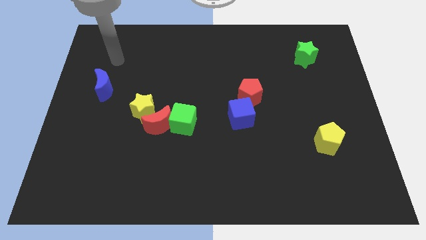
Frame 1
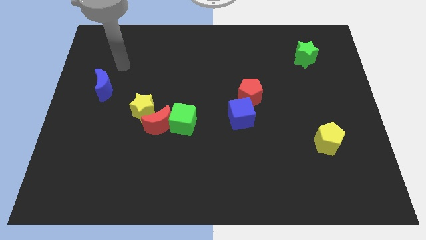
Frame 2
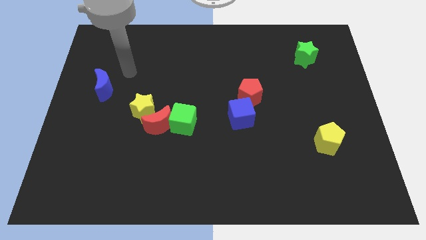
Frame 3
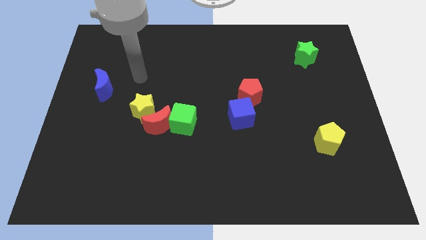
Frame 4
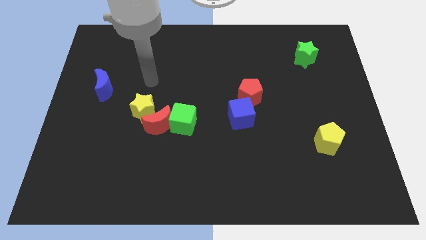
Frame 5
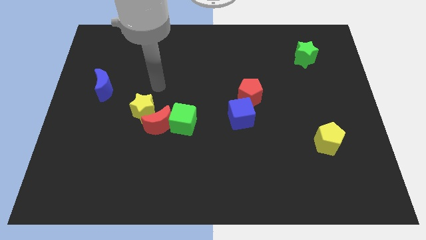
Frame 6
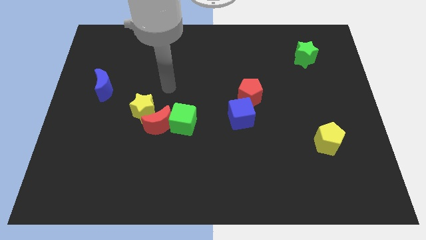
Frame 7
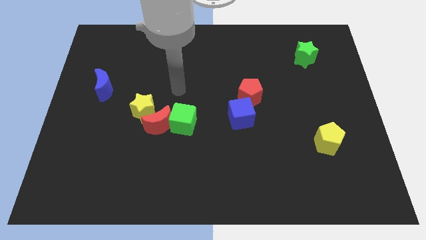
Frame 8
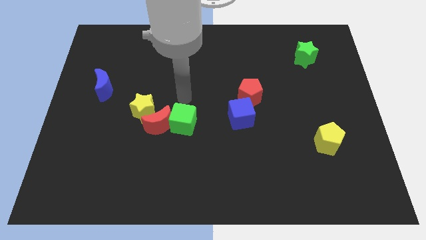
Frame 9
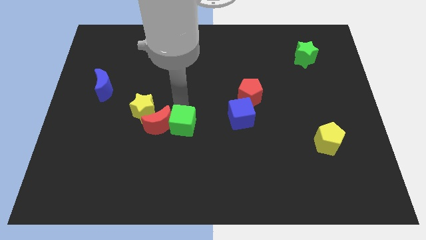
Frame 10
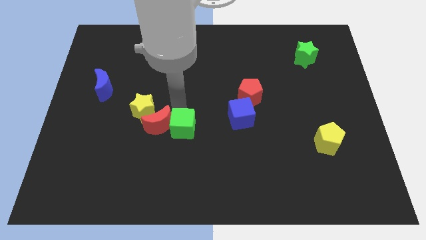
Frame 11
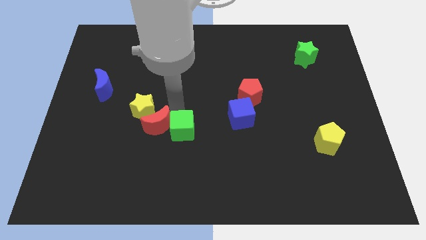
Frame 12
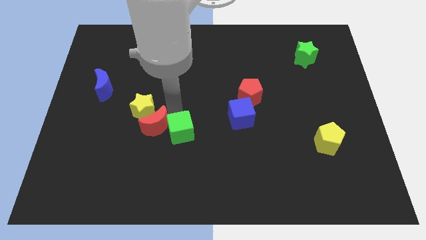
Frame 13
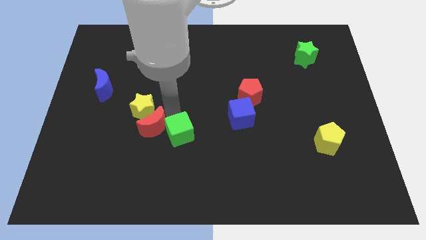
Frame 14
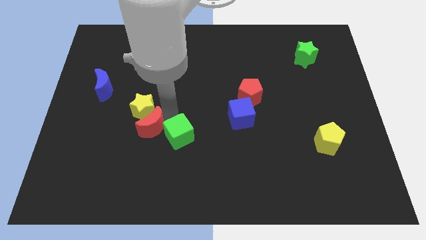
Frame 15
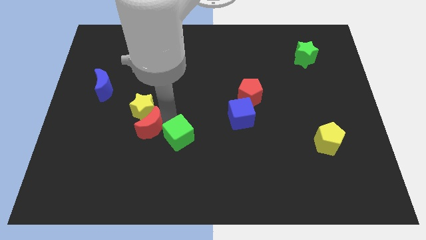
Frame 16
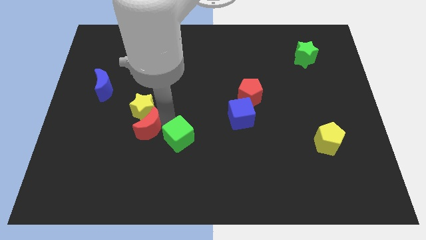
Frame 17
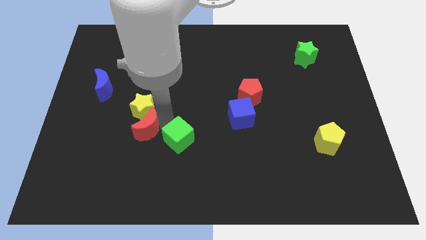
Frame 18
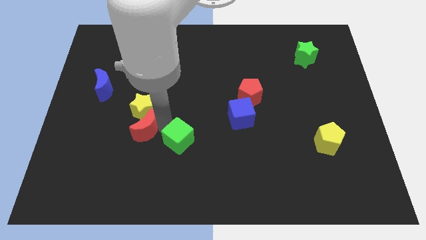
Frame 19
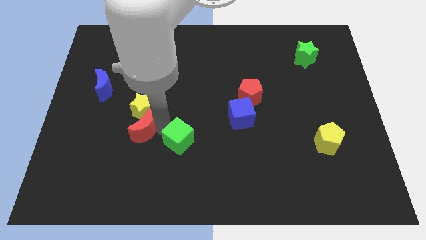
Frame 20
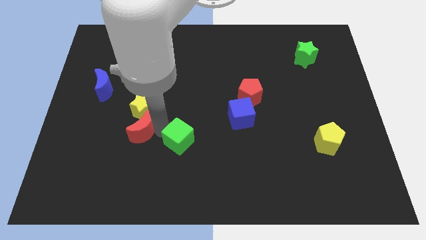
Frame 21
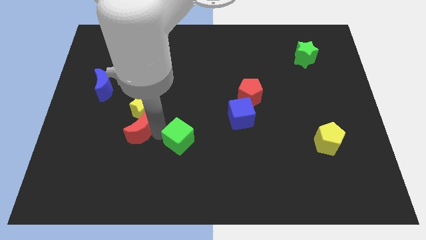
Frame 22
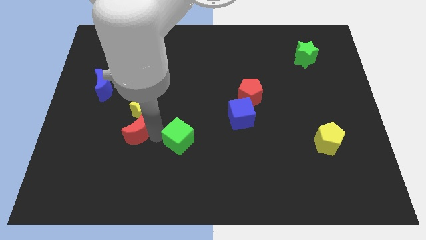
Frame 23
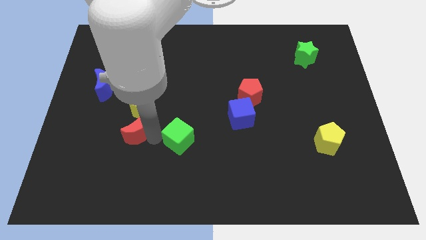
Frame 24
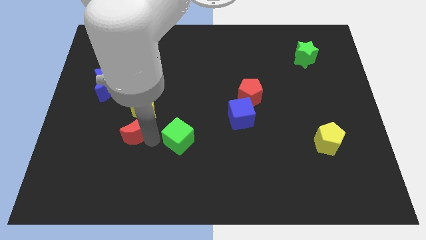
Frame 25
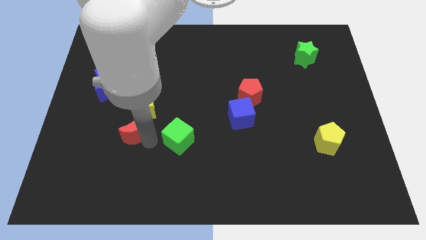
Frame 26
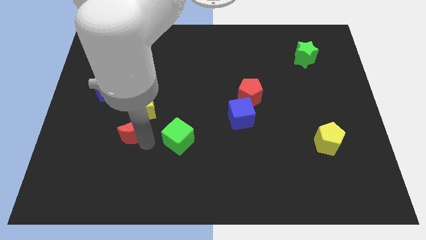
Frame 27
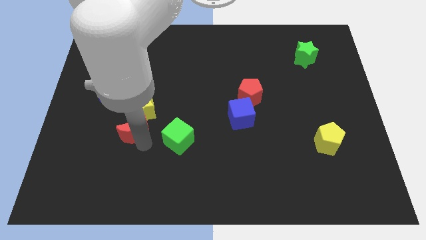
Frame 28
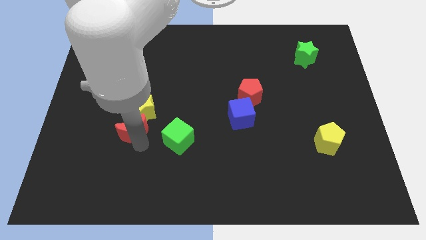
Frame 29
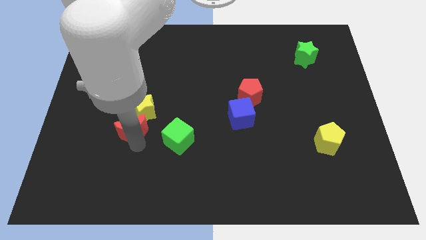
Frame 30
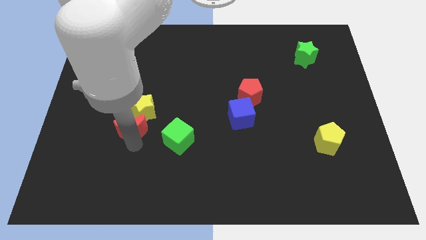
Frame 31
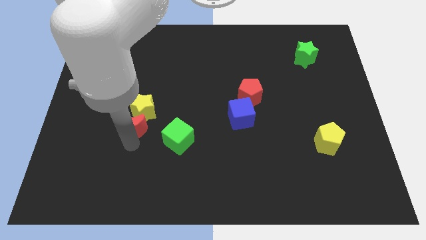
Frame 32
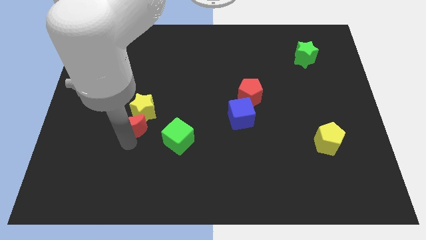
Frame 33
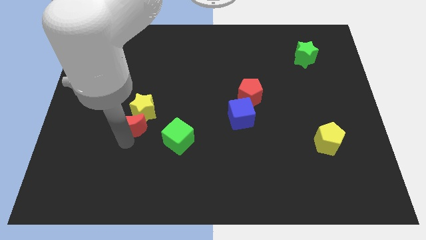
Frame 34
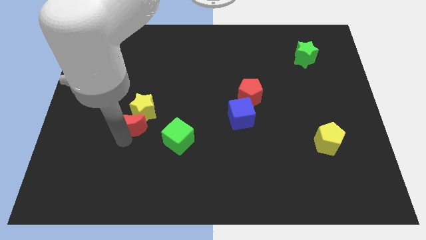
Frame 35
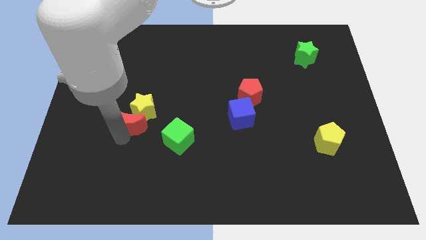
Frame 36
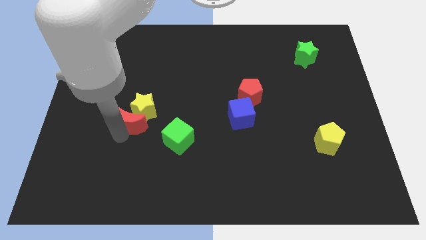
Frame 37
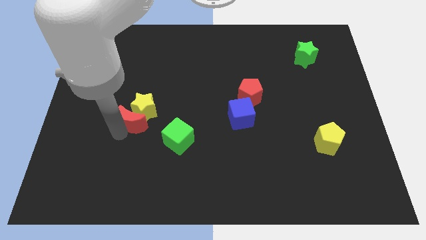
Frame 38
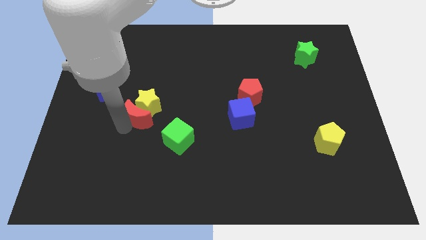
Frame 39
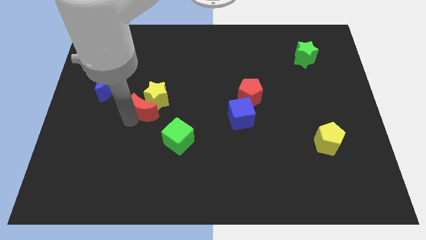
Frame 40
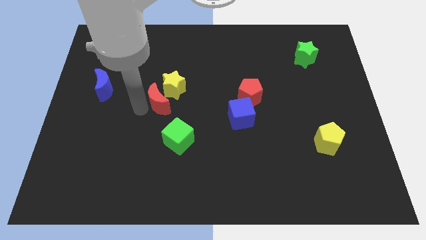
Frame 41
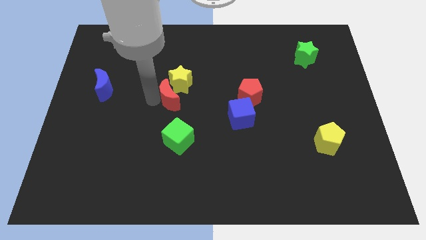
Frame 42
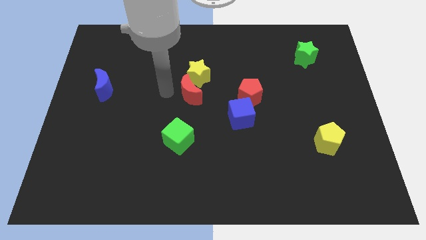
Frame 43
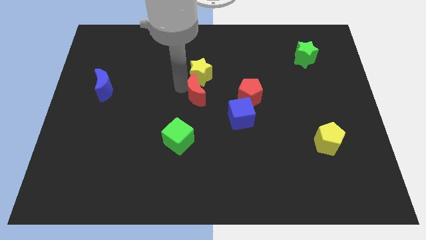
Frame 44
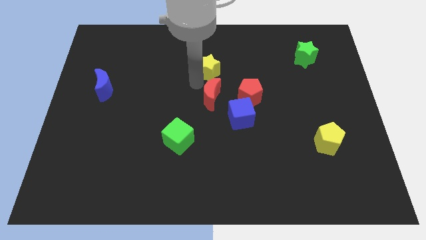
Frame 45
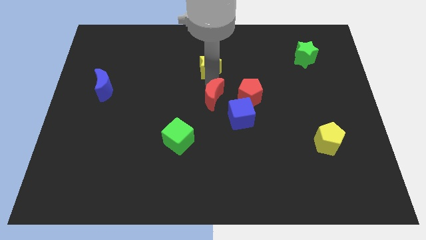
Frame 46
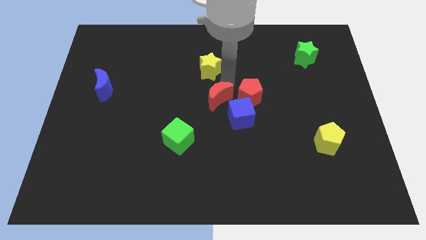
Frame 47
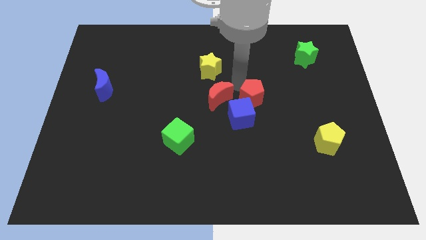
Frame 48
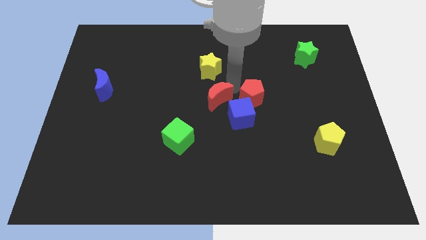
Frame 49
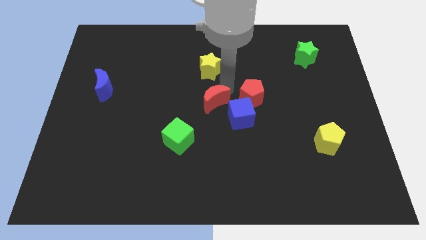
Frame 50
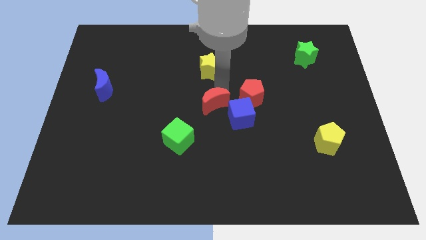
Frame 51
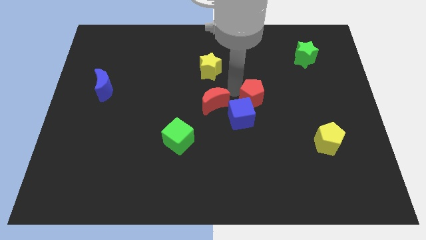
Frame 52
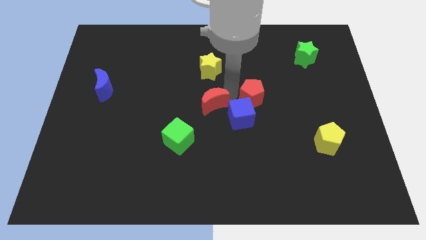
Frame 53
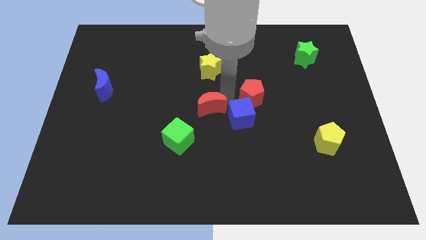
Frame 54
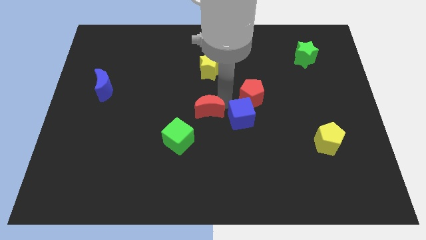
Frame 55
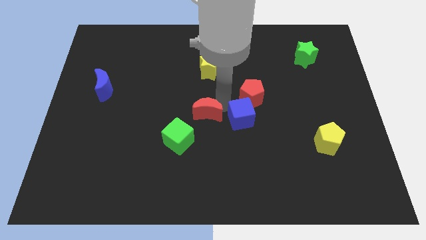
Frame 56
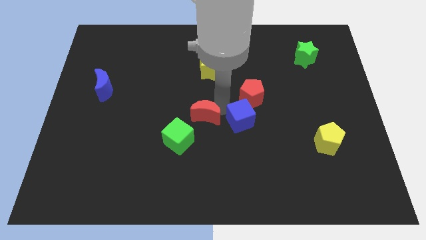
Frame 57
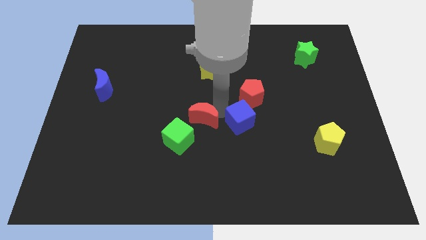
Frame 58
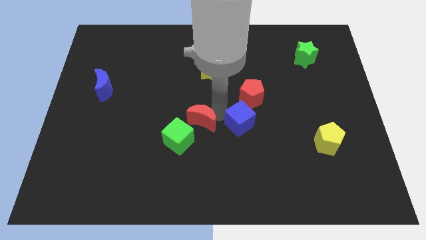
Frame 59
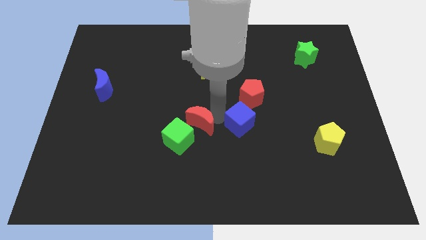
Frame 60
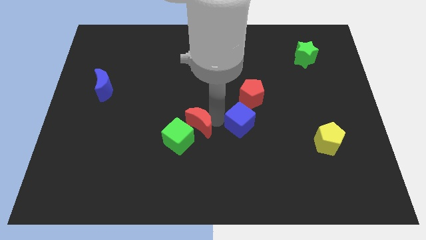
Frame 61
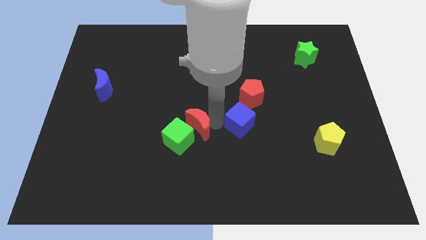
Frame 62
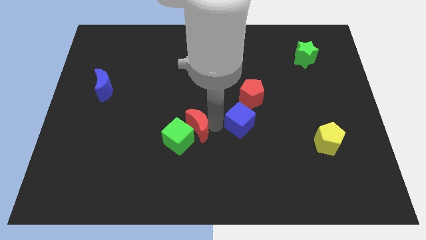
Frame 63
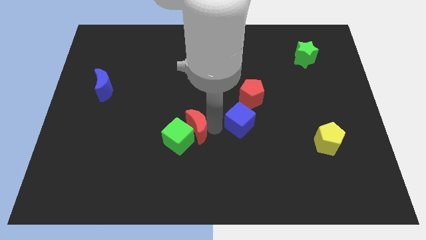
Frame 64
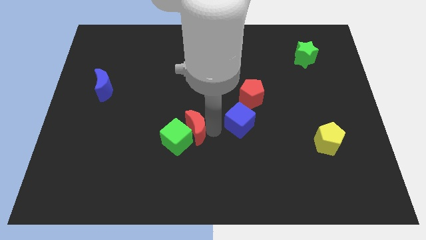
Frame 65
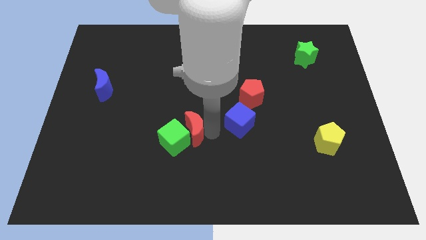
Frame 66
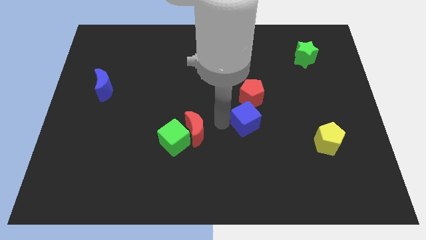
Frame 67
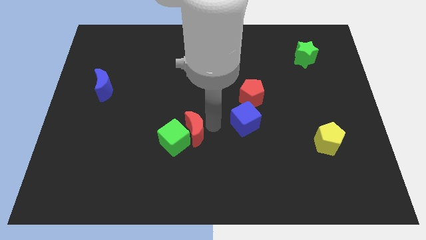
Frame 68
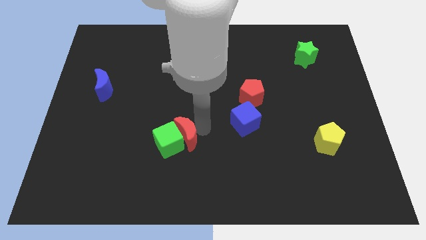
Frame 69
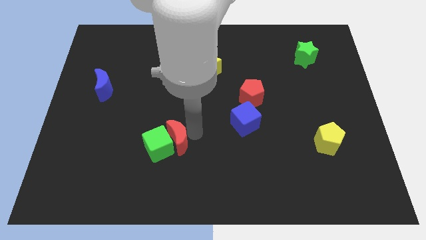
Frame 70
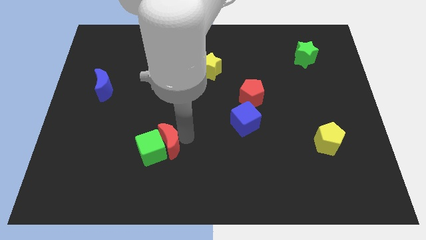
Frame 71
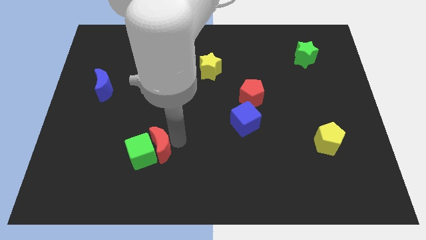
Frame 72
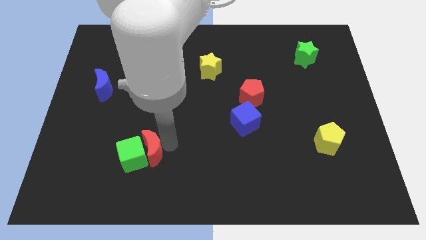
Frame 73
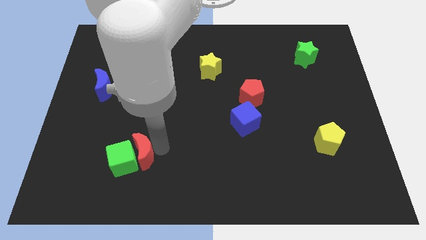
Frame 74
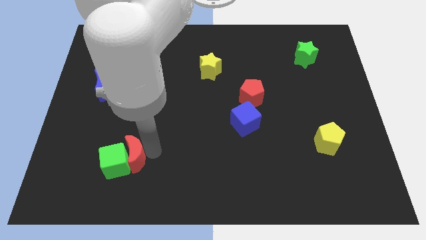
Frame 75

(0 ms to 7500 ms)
move the red moon down and to the left diagonally a little bit

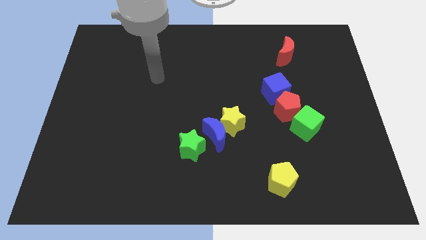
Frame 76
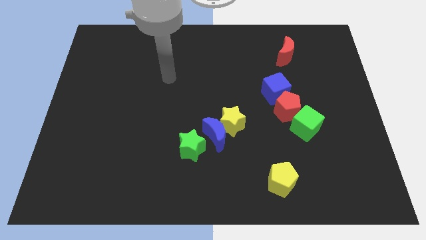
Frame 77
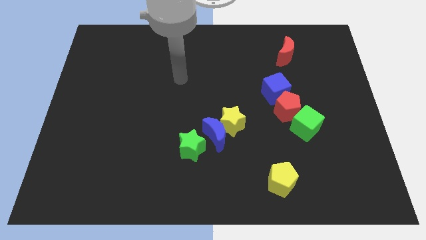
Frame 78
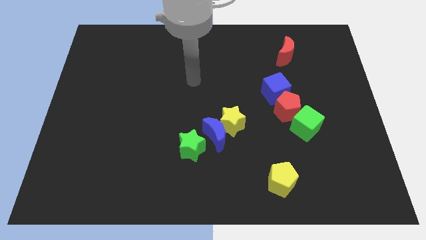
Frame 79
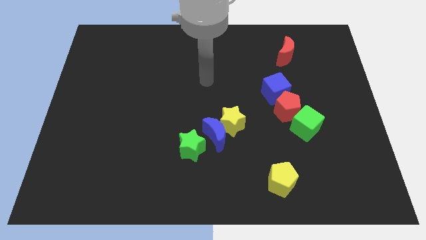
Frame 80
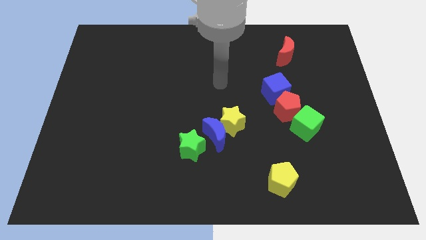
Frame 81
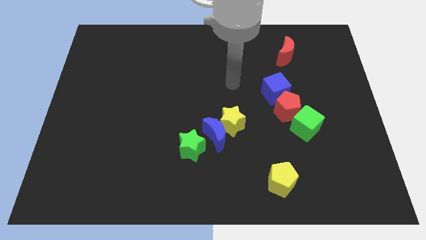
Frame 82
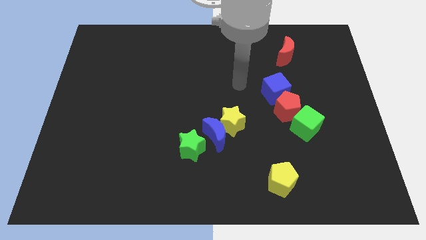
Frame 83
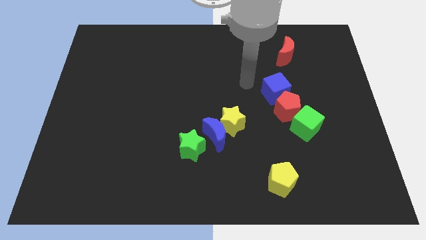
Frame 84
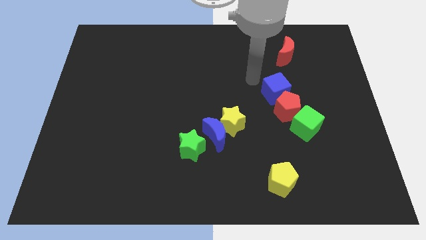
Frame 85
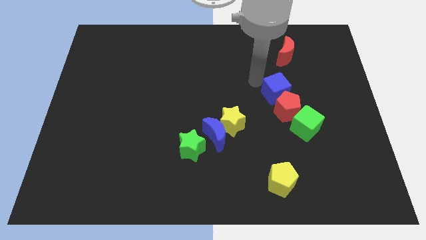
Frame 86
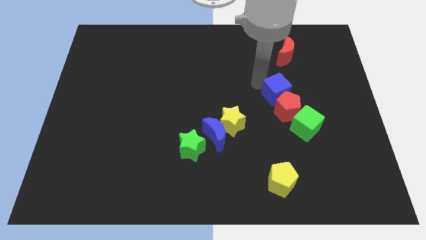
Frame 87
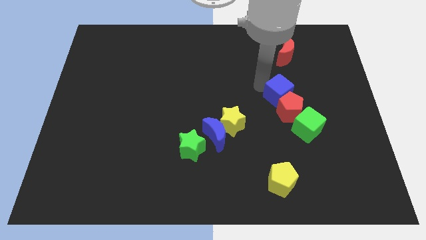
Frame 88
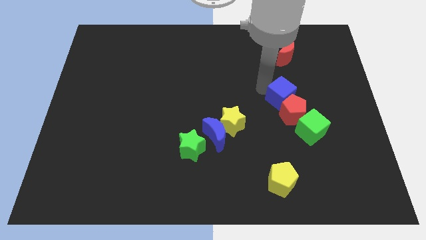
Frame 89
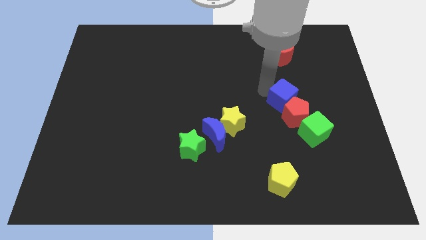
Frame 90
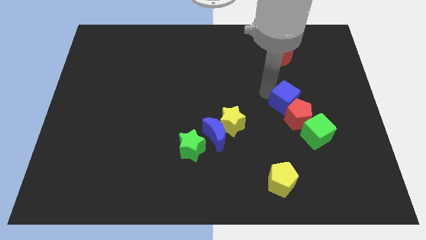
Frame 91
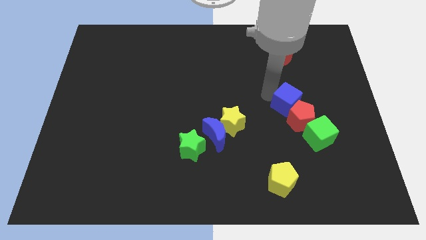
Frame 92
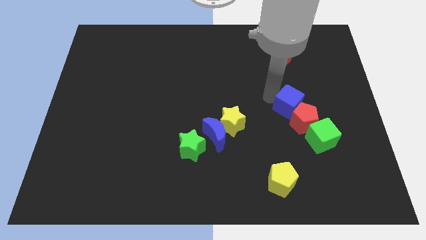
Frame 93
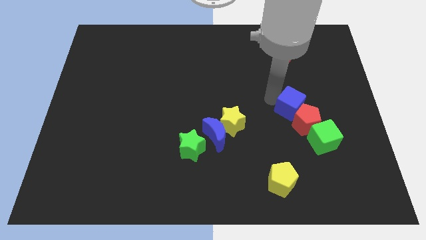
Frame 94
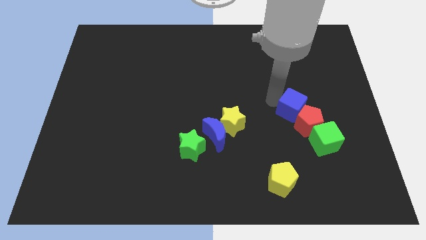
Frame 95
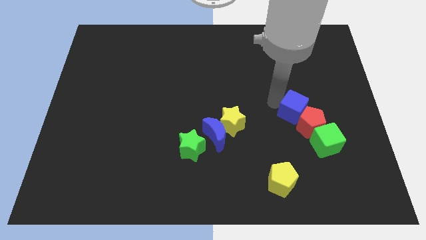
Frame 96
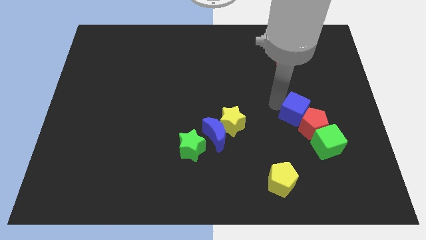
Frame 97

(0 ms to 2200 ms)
push the blue cube diagonally downwards and to the right slightly
